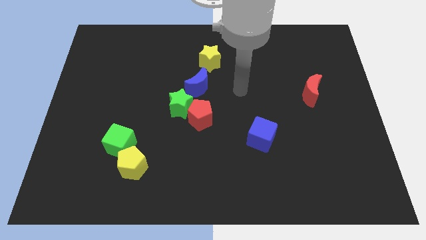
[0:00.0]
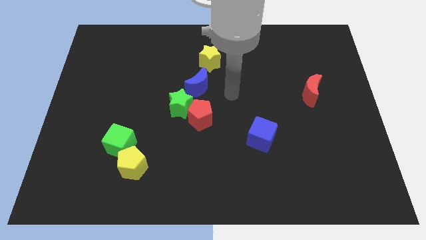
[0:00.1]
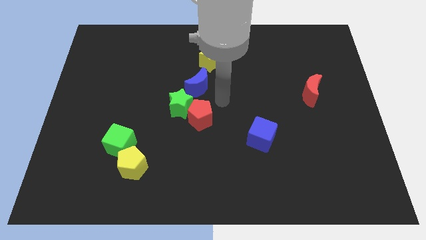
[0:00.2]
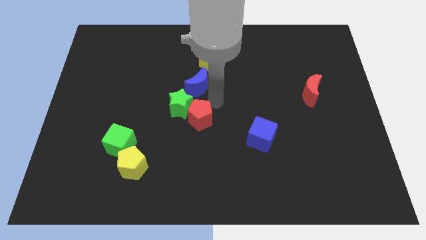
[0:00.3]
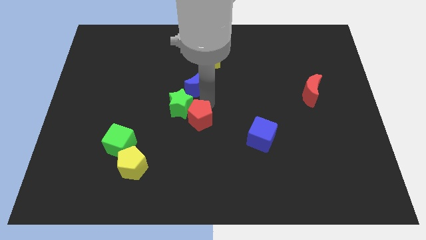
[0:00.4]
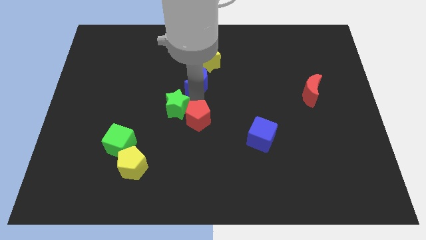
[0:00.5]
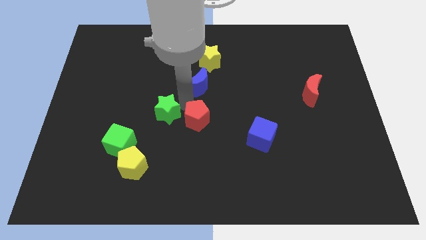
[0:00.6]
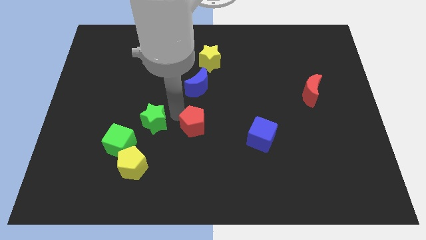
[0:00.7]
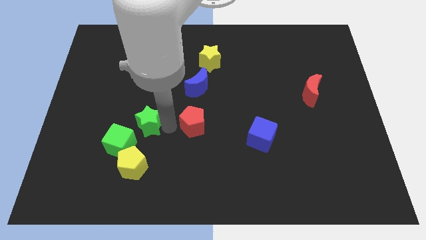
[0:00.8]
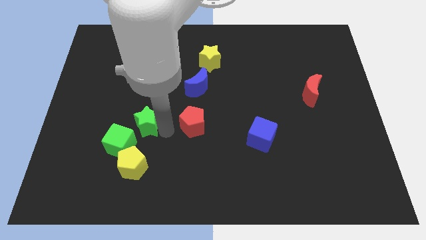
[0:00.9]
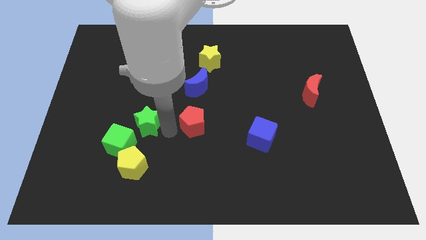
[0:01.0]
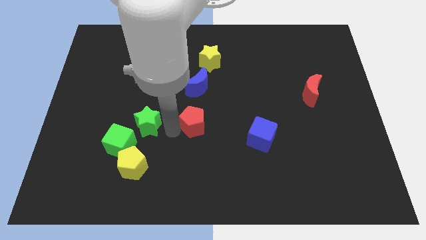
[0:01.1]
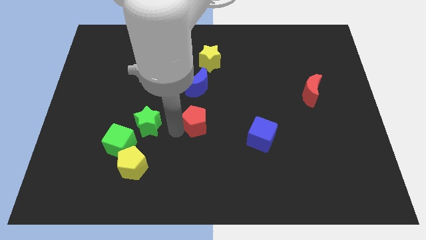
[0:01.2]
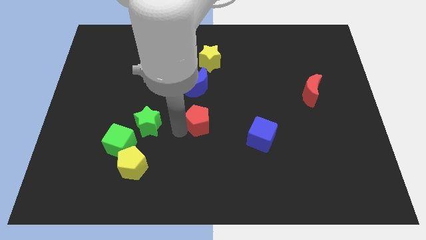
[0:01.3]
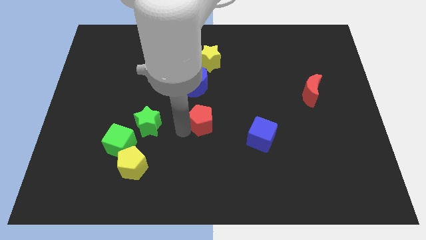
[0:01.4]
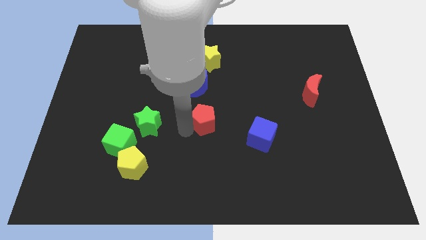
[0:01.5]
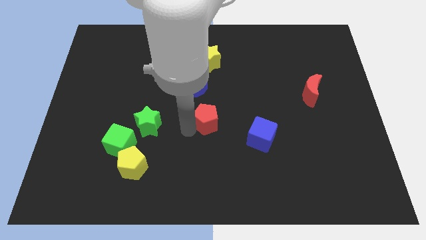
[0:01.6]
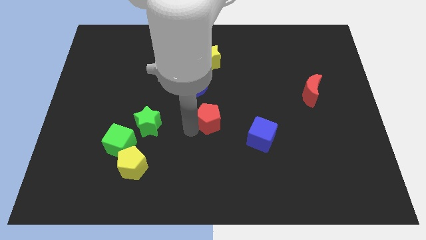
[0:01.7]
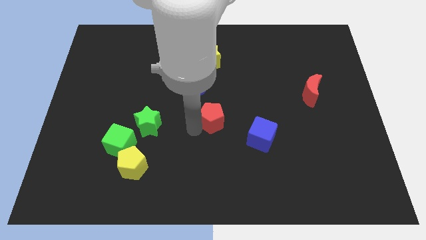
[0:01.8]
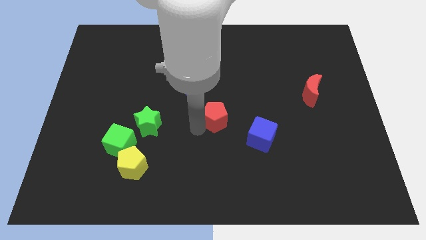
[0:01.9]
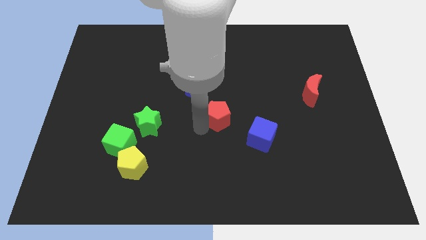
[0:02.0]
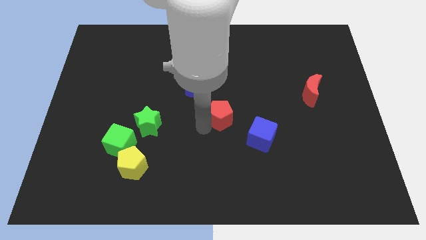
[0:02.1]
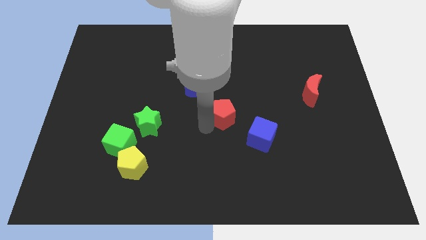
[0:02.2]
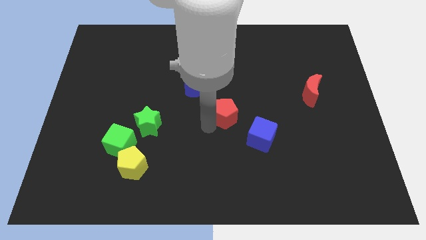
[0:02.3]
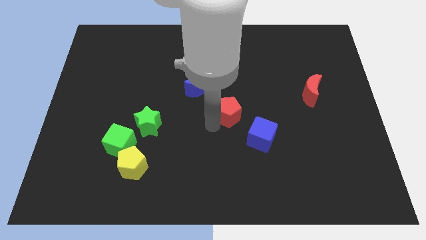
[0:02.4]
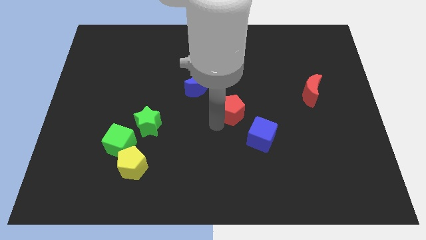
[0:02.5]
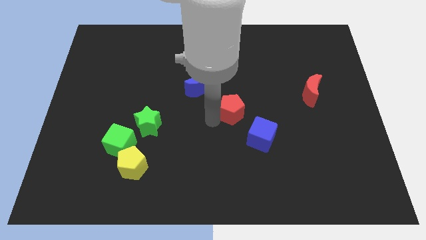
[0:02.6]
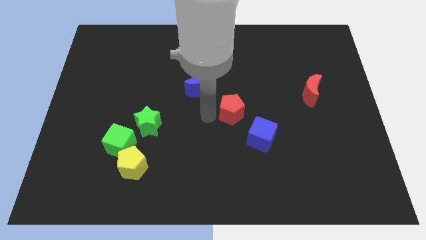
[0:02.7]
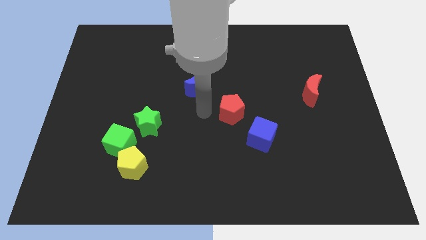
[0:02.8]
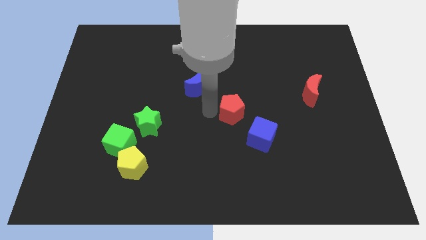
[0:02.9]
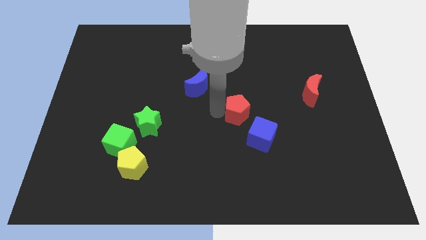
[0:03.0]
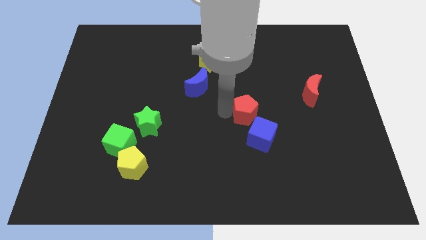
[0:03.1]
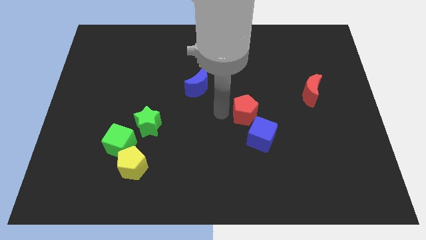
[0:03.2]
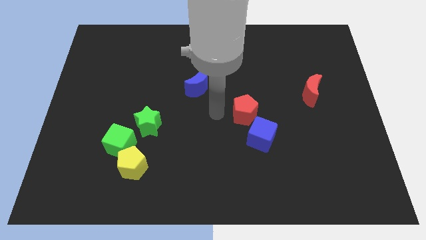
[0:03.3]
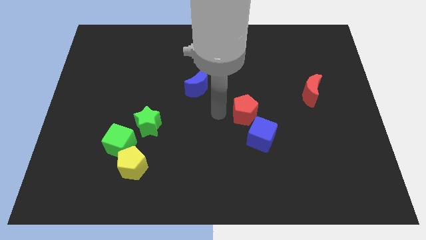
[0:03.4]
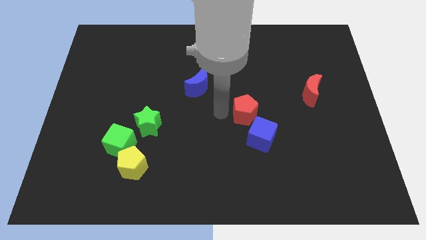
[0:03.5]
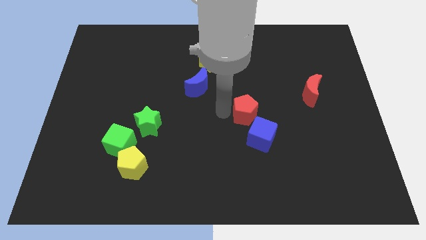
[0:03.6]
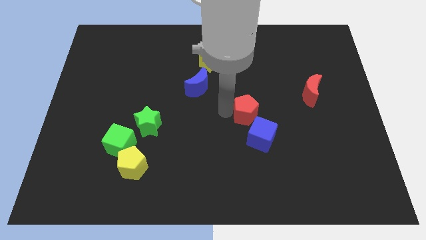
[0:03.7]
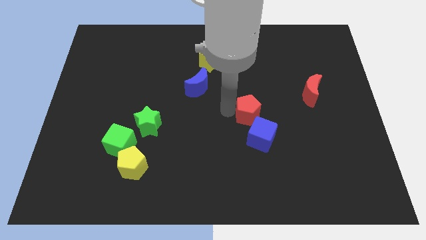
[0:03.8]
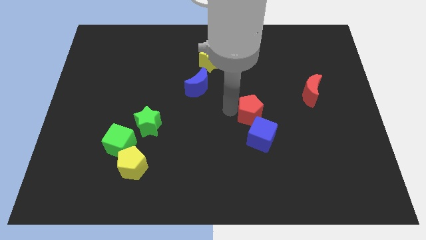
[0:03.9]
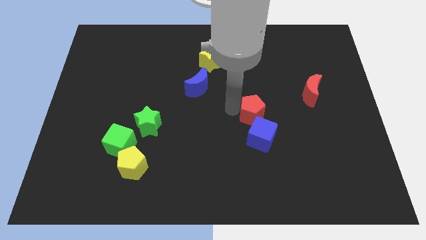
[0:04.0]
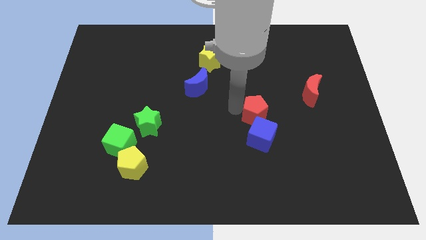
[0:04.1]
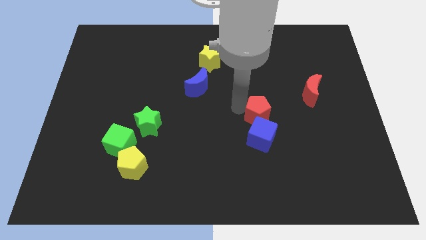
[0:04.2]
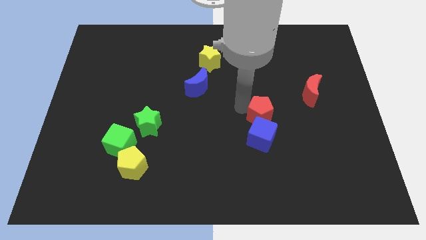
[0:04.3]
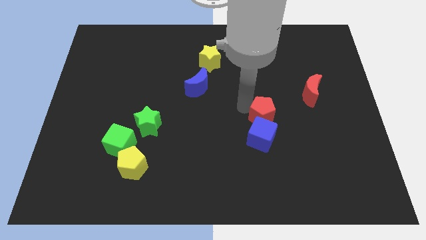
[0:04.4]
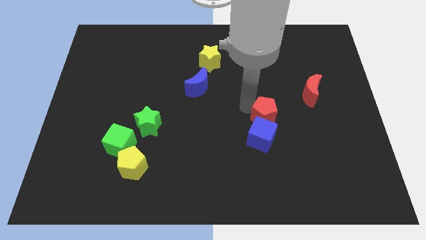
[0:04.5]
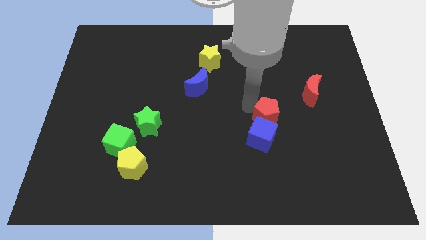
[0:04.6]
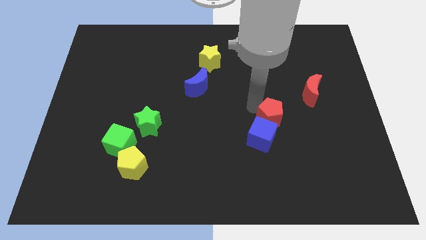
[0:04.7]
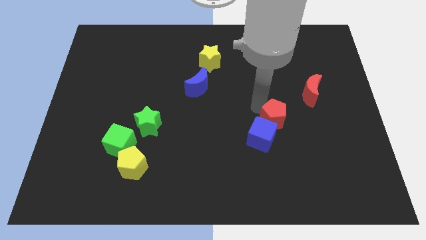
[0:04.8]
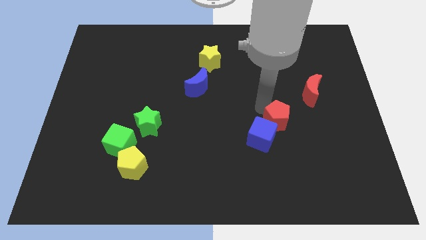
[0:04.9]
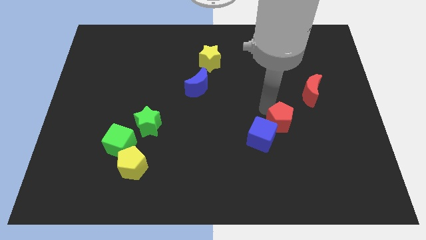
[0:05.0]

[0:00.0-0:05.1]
push the red pentagon just right of the blue cube

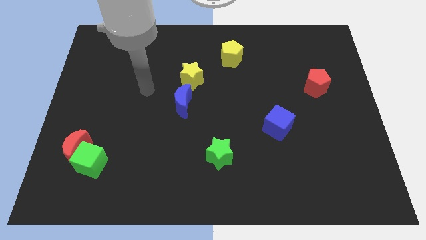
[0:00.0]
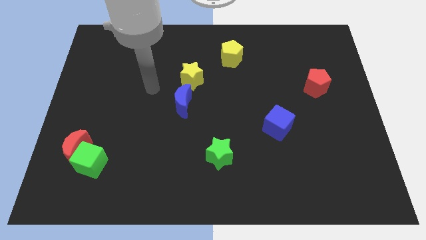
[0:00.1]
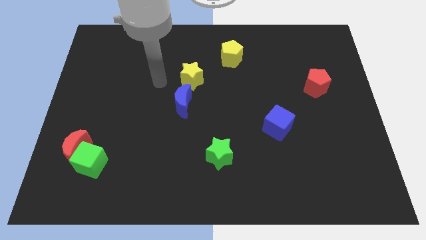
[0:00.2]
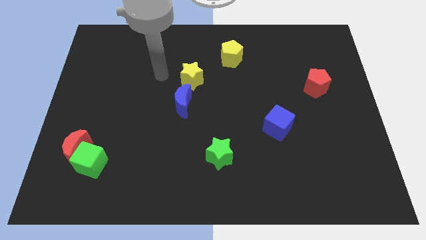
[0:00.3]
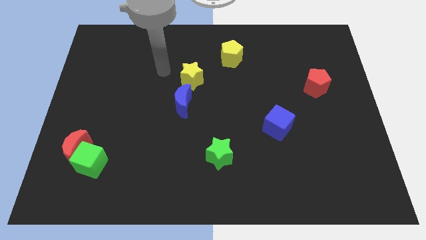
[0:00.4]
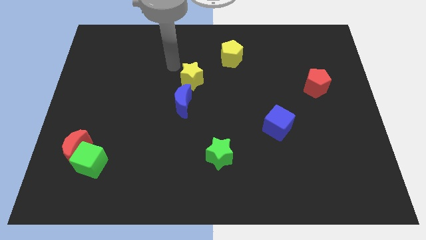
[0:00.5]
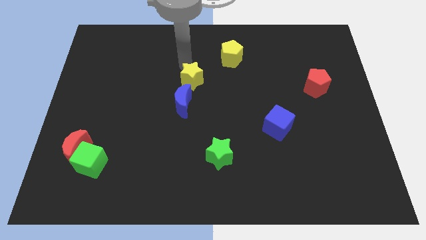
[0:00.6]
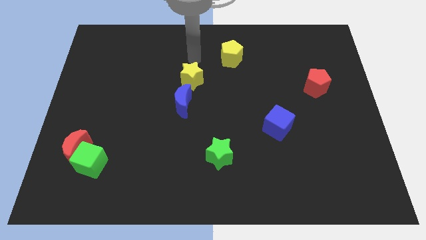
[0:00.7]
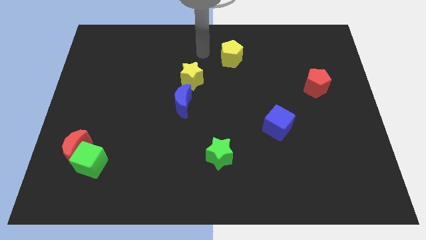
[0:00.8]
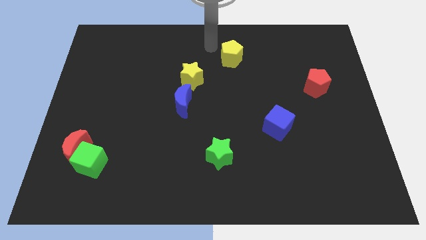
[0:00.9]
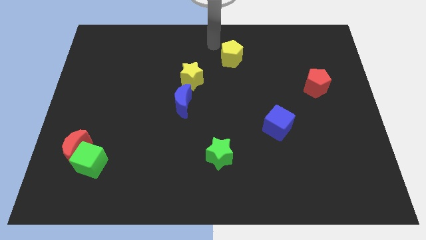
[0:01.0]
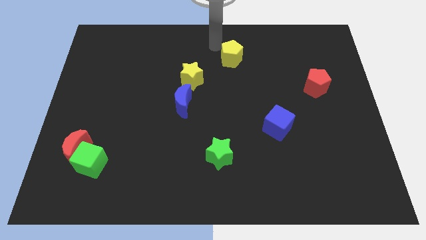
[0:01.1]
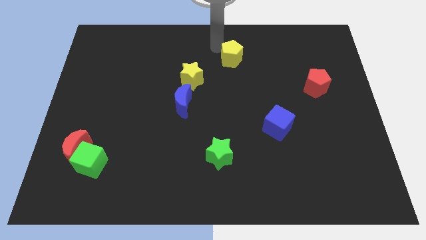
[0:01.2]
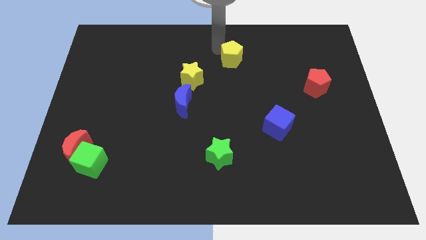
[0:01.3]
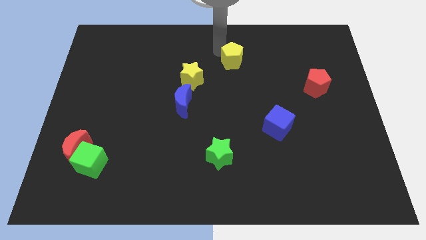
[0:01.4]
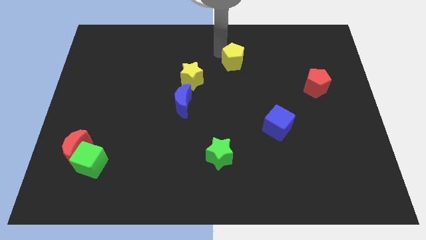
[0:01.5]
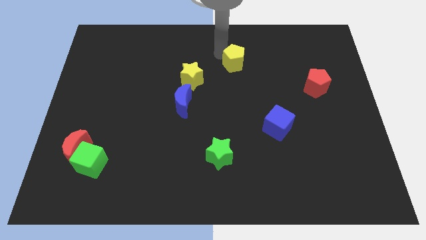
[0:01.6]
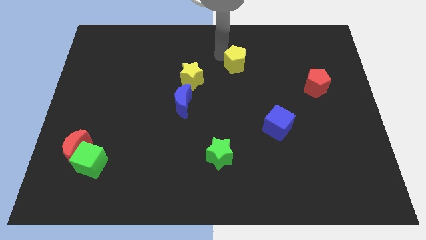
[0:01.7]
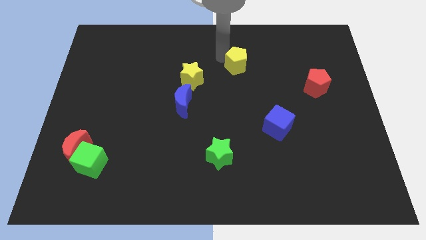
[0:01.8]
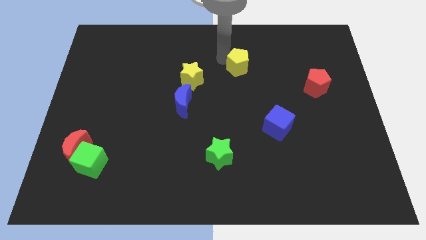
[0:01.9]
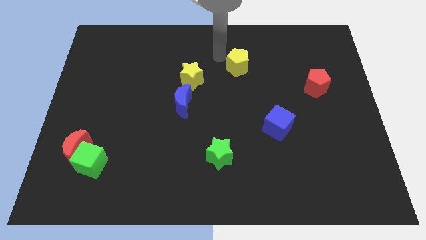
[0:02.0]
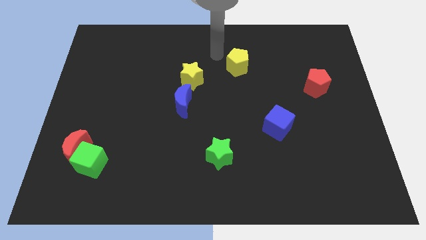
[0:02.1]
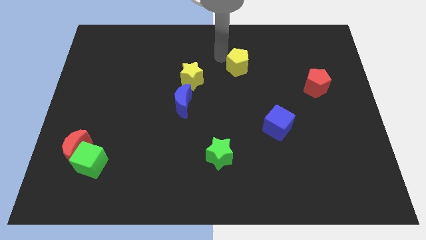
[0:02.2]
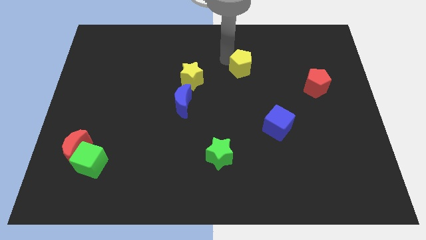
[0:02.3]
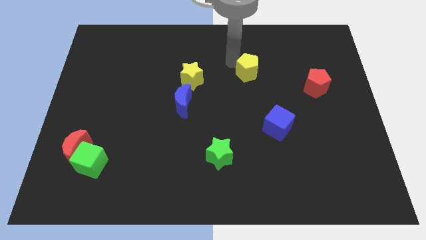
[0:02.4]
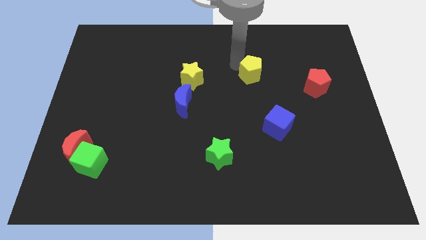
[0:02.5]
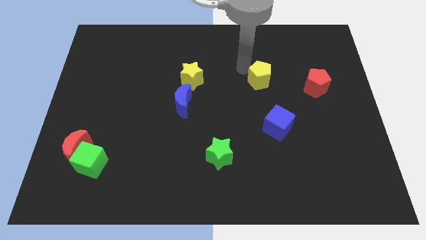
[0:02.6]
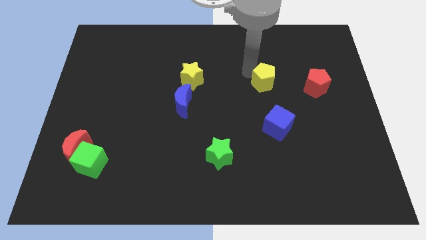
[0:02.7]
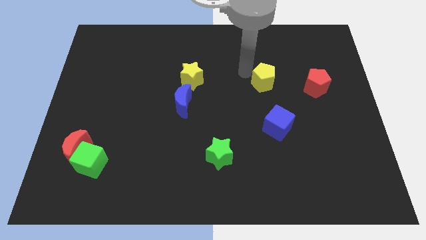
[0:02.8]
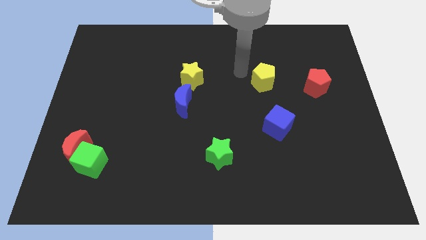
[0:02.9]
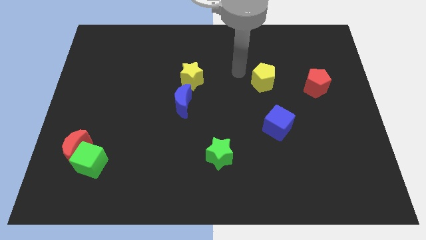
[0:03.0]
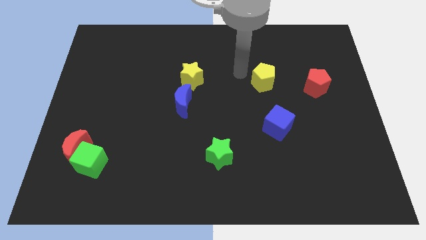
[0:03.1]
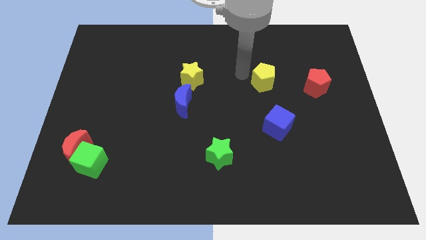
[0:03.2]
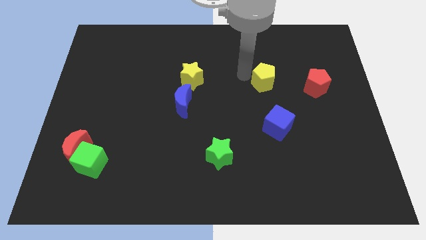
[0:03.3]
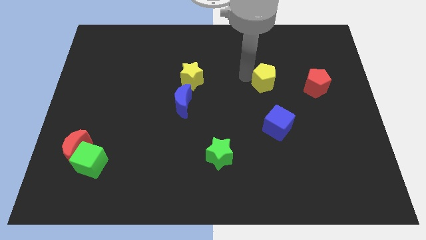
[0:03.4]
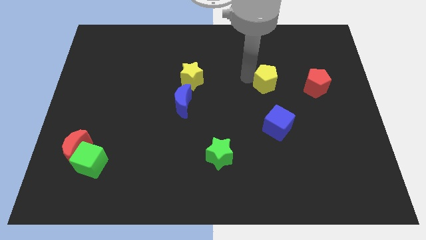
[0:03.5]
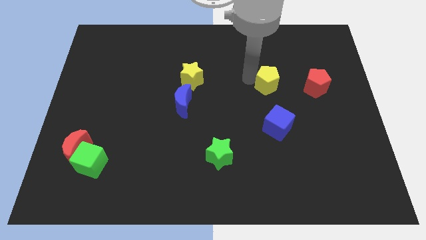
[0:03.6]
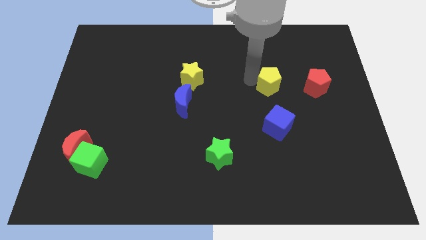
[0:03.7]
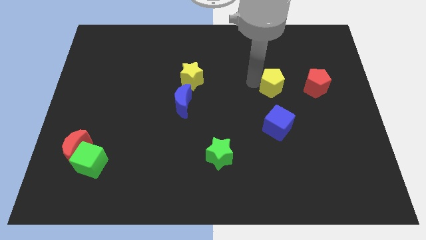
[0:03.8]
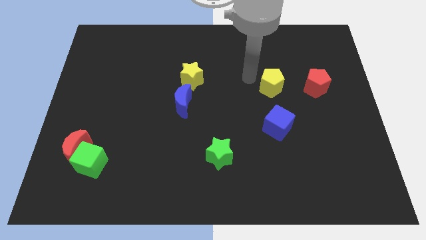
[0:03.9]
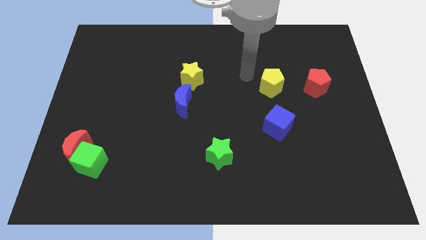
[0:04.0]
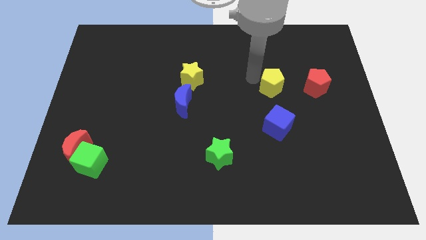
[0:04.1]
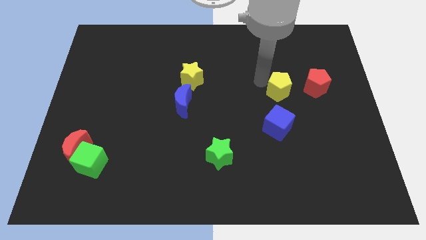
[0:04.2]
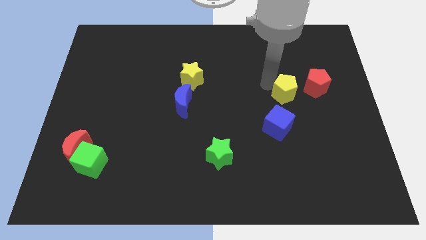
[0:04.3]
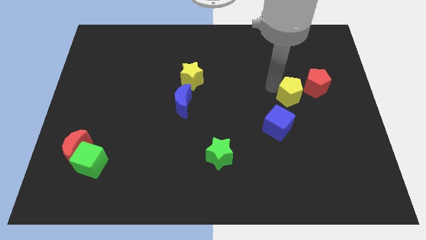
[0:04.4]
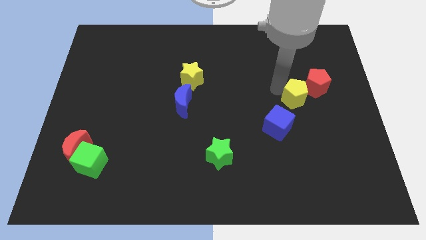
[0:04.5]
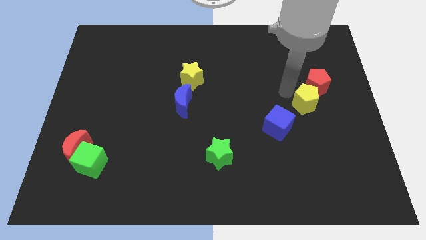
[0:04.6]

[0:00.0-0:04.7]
push the yellow pentagon below the red pentagon
